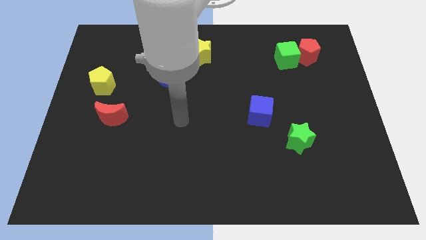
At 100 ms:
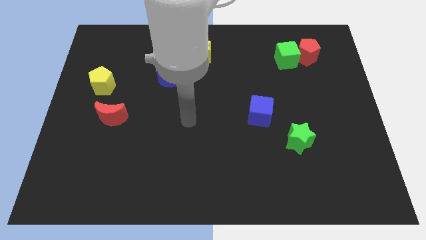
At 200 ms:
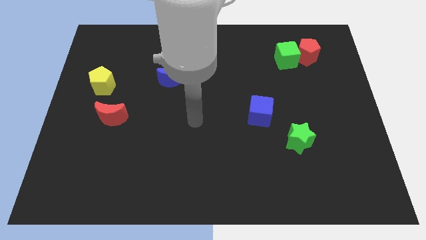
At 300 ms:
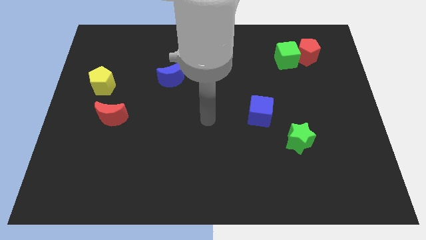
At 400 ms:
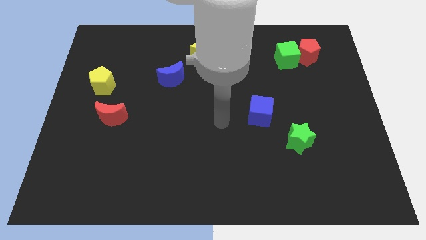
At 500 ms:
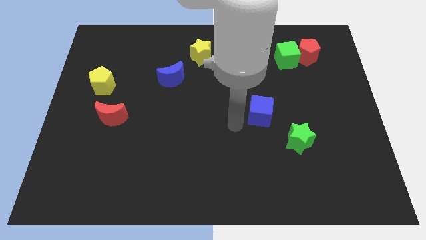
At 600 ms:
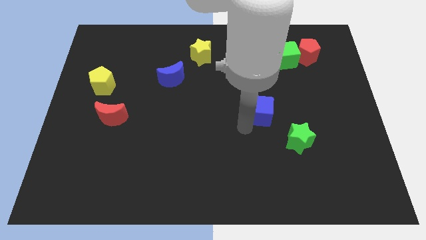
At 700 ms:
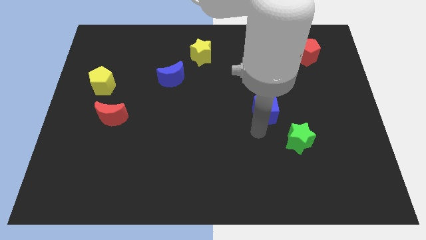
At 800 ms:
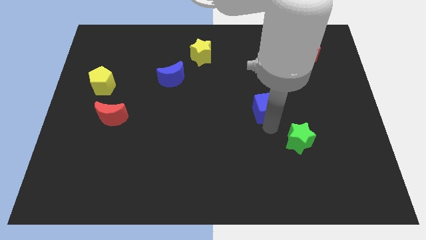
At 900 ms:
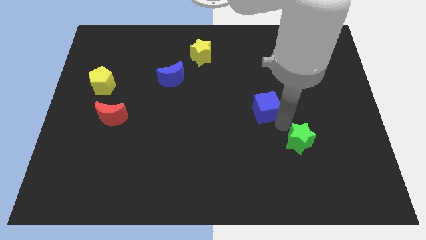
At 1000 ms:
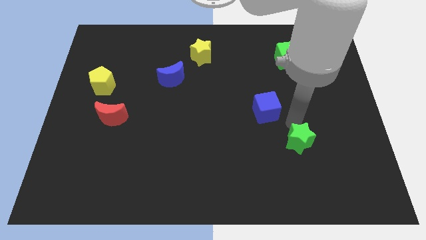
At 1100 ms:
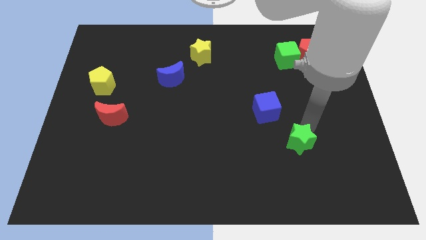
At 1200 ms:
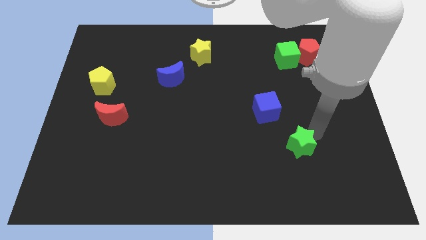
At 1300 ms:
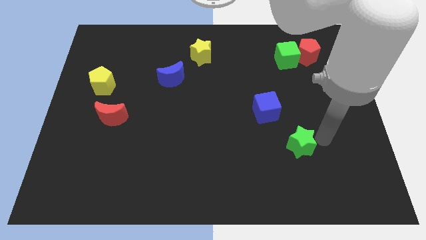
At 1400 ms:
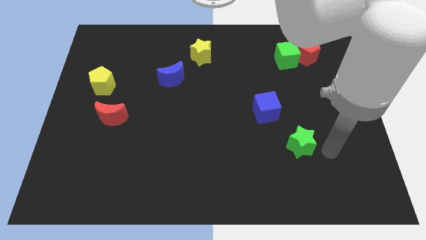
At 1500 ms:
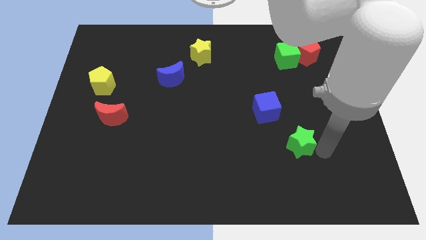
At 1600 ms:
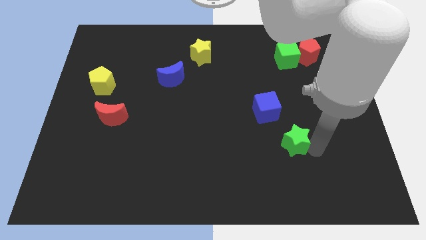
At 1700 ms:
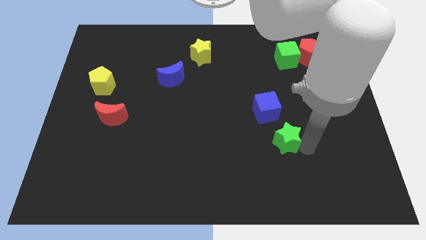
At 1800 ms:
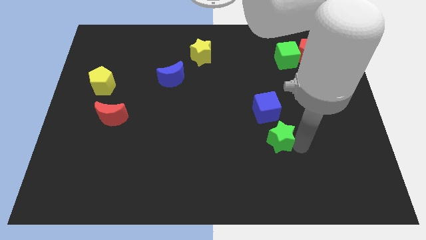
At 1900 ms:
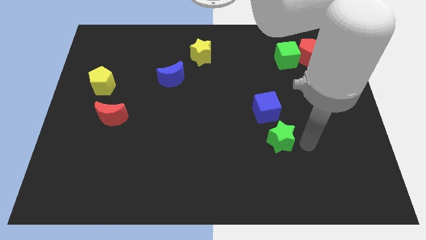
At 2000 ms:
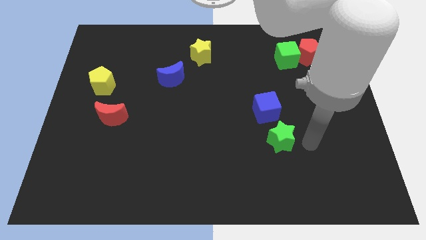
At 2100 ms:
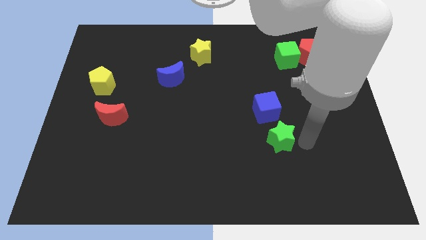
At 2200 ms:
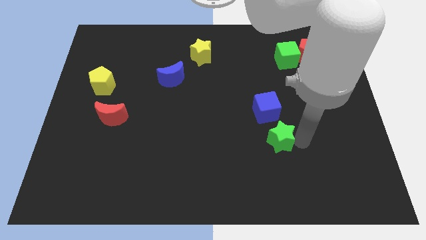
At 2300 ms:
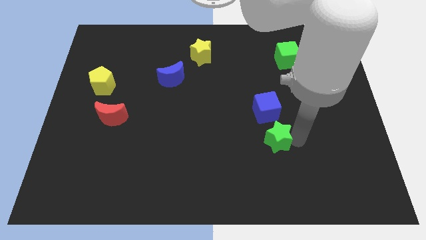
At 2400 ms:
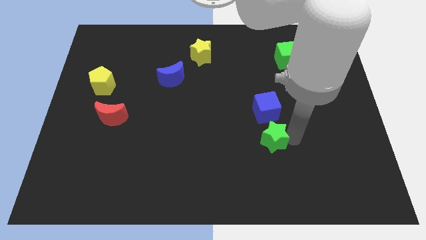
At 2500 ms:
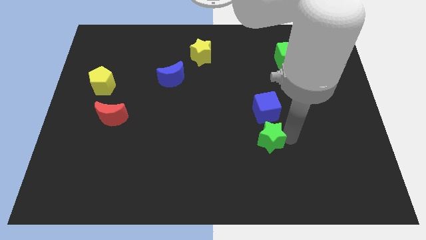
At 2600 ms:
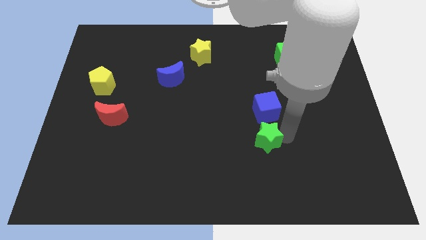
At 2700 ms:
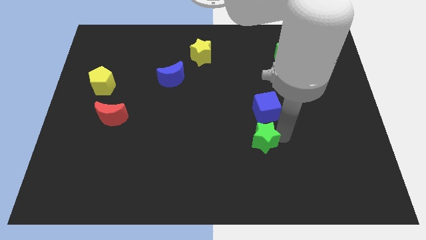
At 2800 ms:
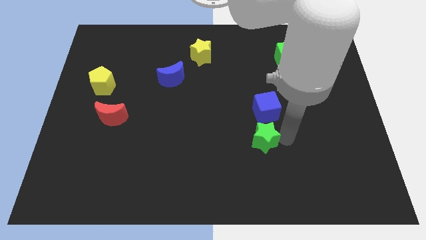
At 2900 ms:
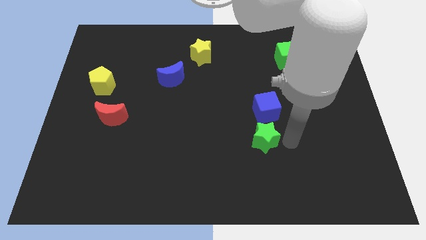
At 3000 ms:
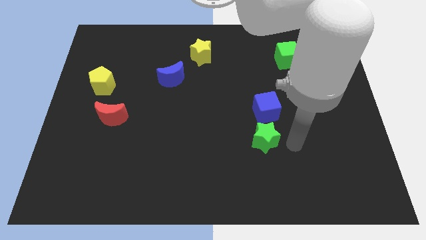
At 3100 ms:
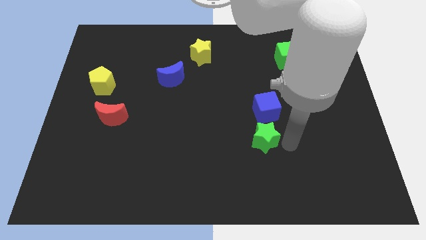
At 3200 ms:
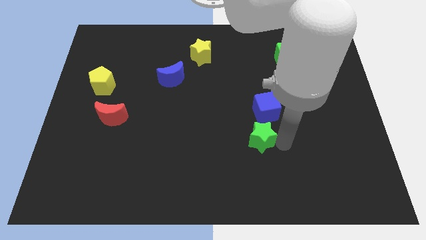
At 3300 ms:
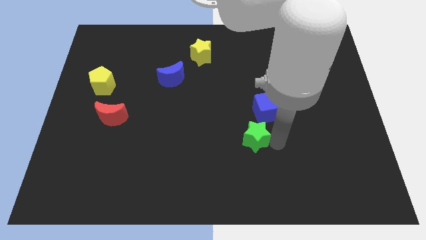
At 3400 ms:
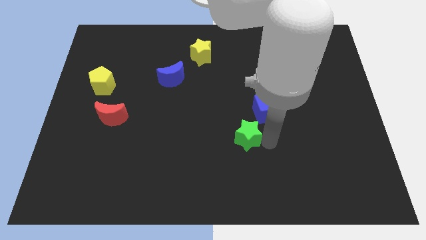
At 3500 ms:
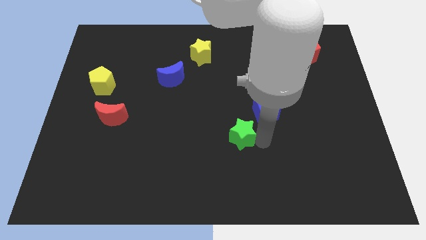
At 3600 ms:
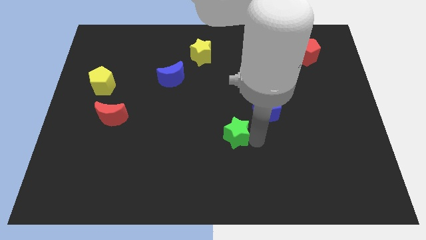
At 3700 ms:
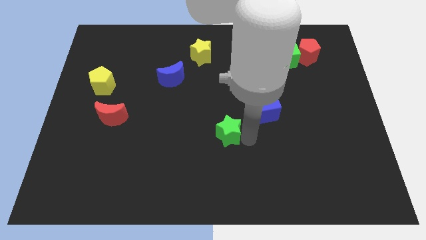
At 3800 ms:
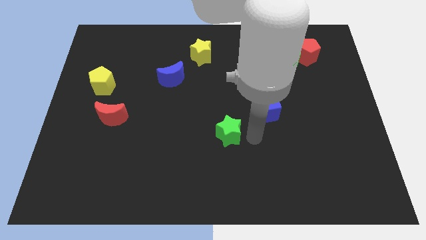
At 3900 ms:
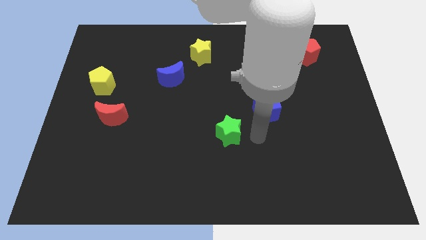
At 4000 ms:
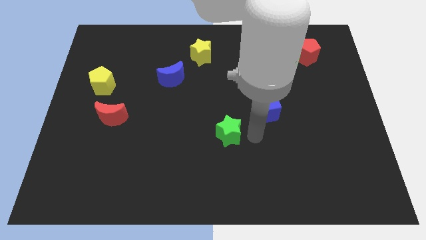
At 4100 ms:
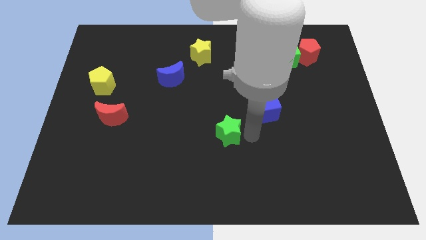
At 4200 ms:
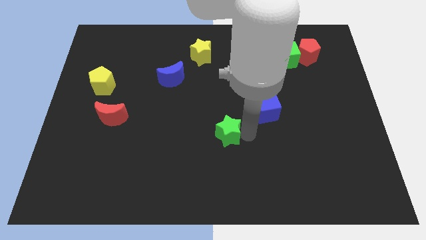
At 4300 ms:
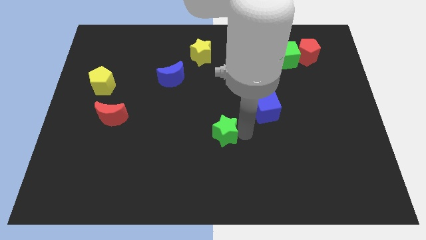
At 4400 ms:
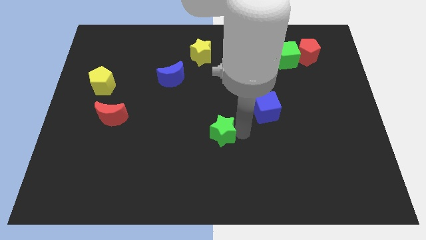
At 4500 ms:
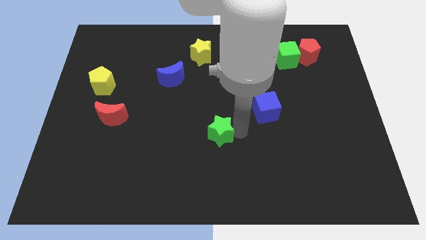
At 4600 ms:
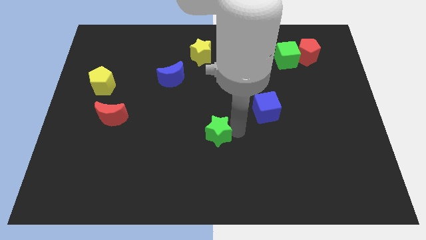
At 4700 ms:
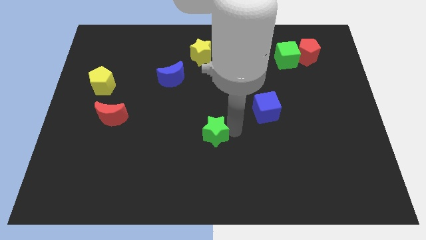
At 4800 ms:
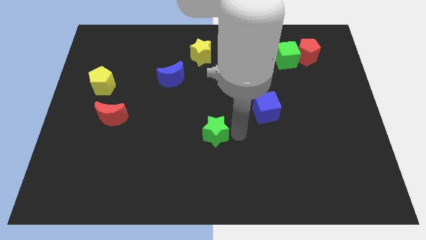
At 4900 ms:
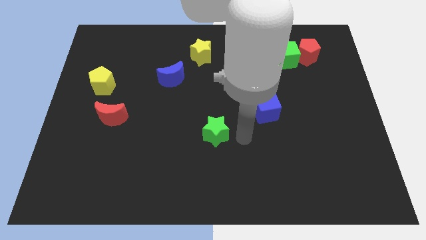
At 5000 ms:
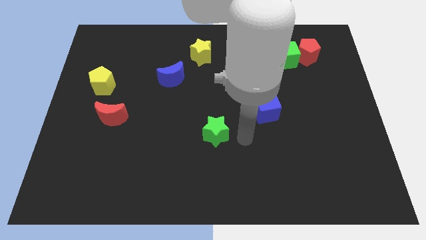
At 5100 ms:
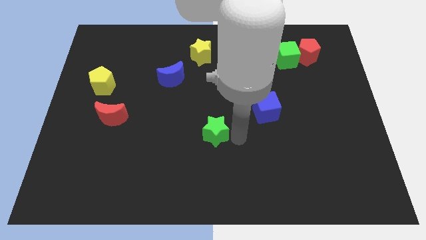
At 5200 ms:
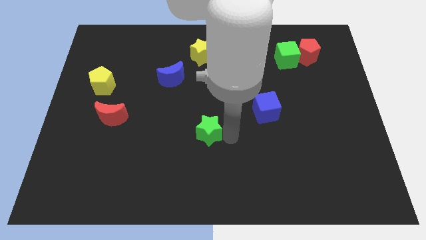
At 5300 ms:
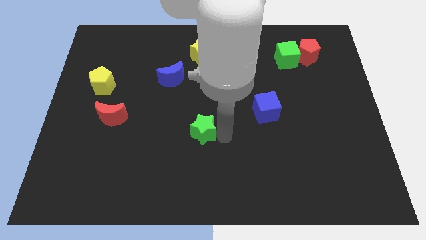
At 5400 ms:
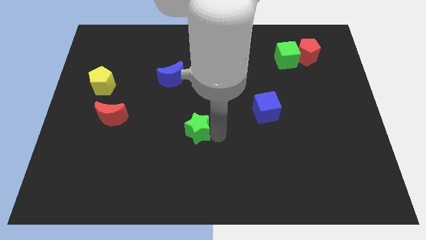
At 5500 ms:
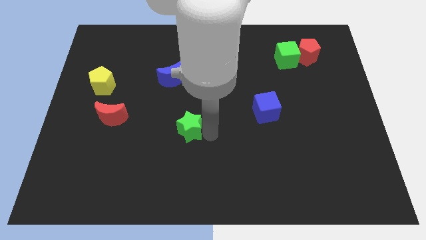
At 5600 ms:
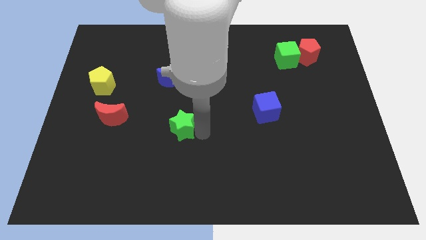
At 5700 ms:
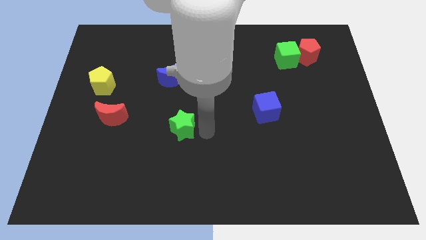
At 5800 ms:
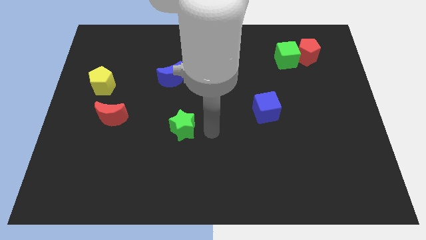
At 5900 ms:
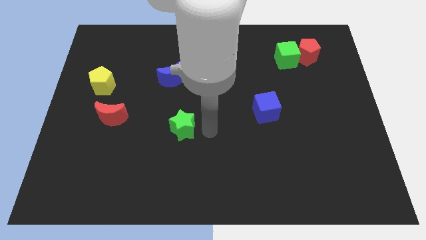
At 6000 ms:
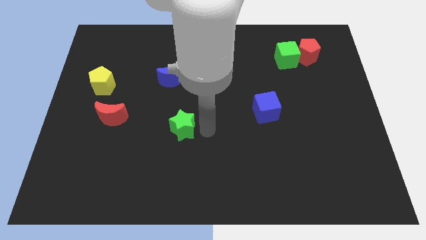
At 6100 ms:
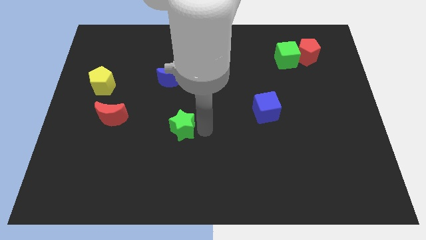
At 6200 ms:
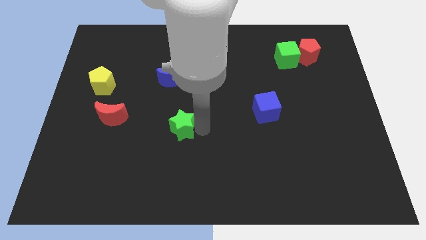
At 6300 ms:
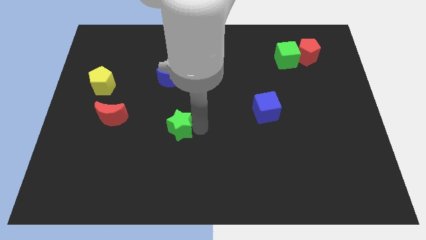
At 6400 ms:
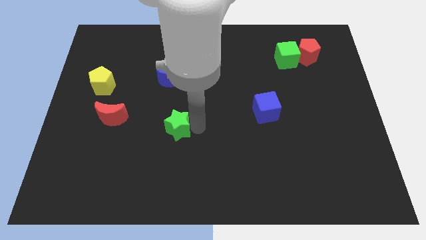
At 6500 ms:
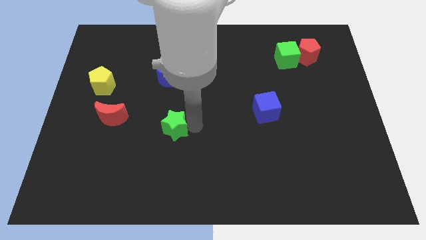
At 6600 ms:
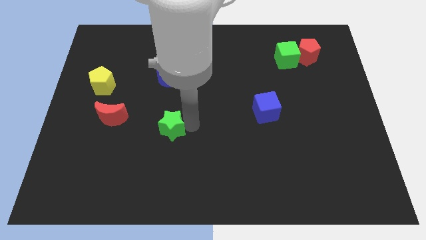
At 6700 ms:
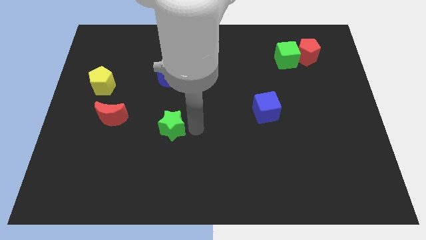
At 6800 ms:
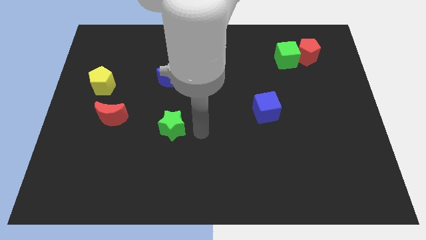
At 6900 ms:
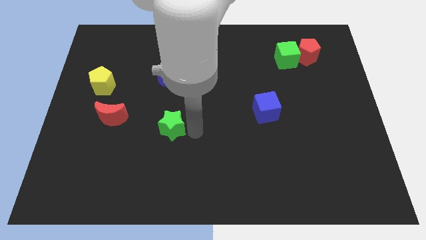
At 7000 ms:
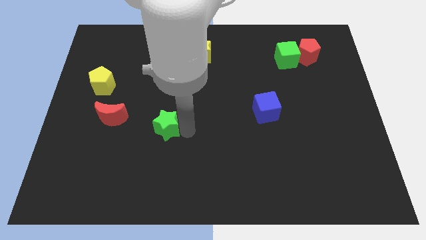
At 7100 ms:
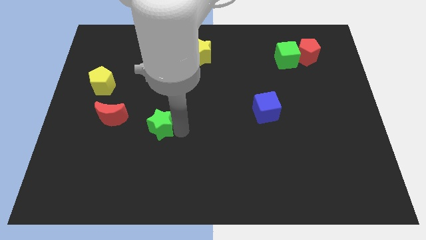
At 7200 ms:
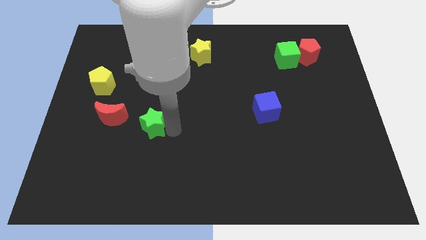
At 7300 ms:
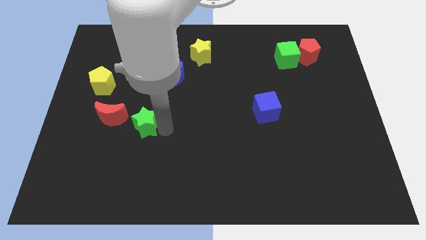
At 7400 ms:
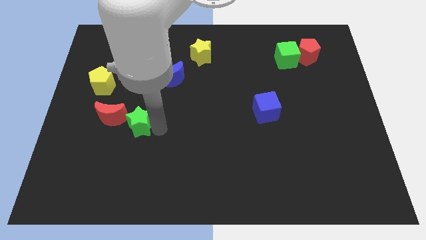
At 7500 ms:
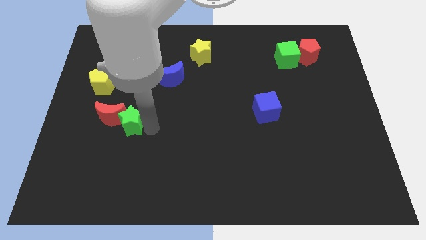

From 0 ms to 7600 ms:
push the green star close to the red moon
